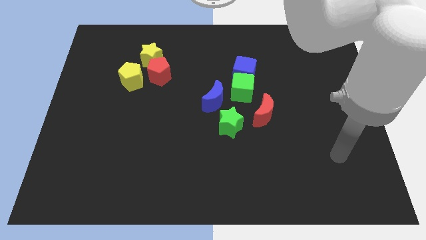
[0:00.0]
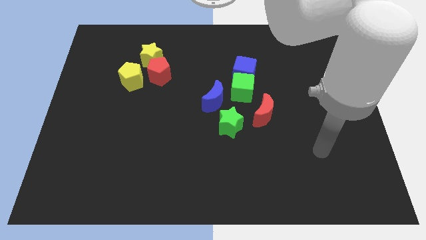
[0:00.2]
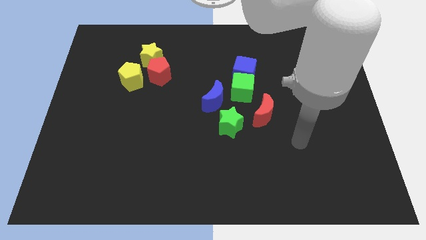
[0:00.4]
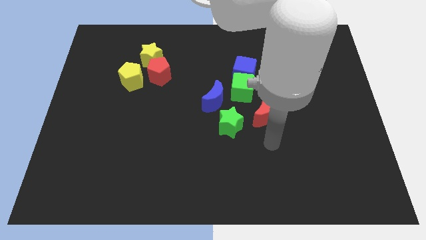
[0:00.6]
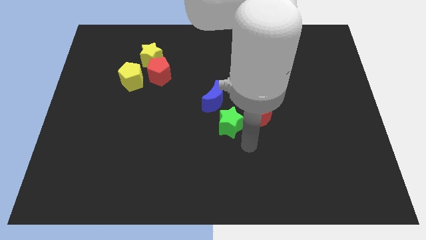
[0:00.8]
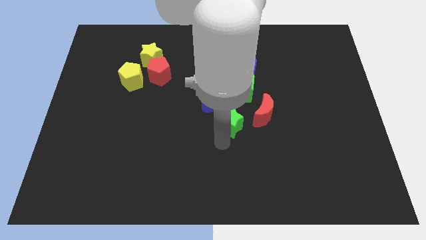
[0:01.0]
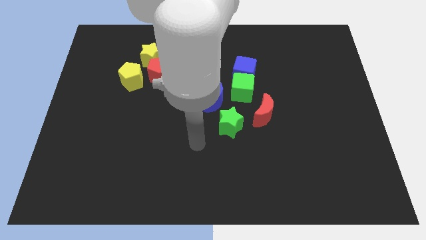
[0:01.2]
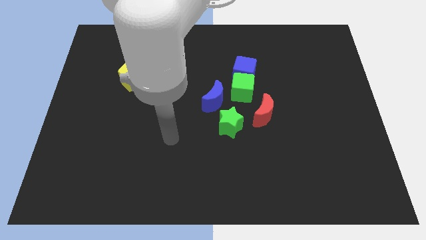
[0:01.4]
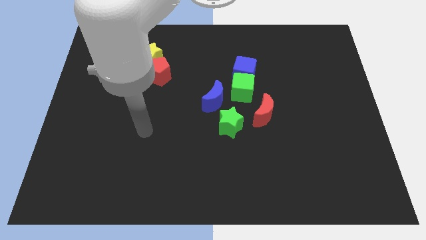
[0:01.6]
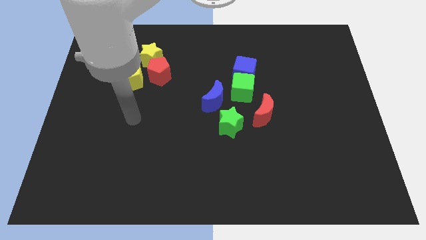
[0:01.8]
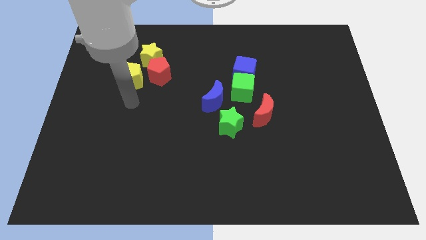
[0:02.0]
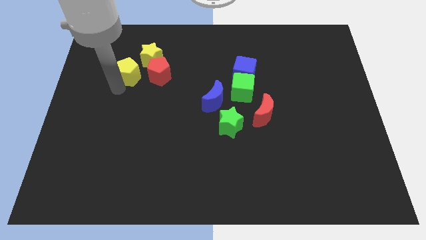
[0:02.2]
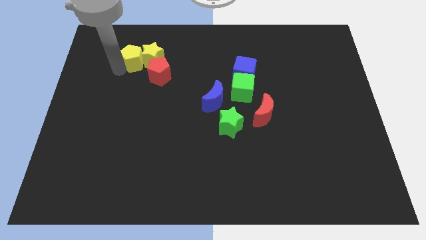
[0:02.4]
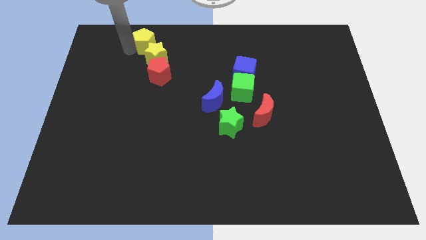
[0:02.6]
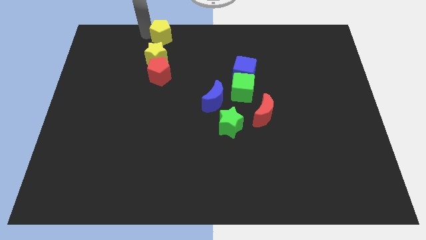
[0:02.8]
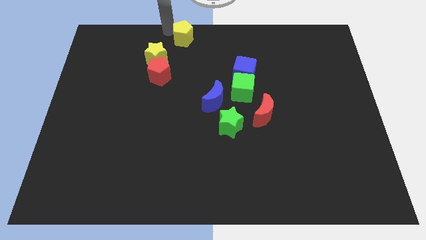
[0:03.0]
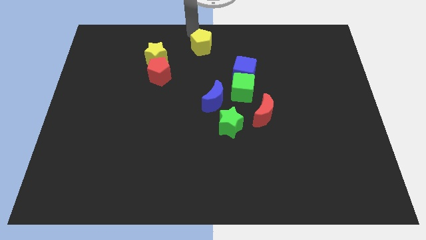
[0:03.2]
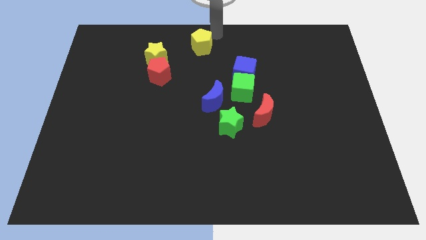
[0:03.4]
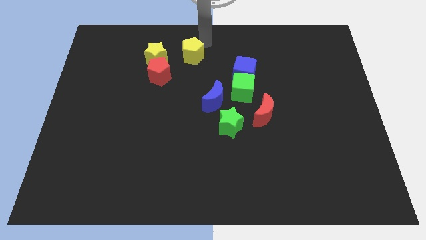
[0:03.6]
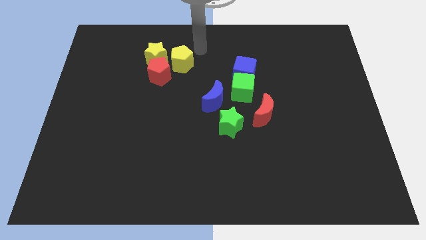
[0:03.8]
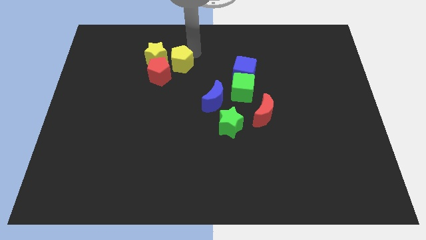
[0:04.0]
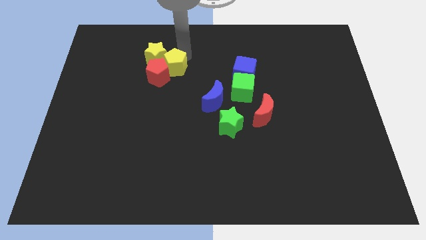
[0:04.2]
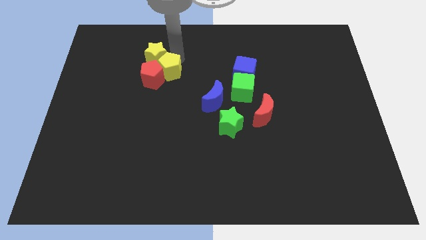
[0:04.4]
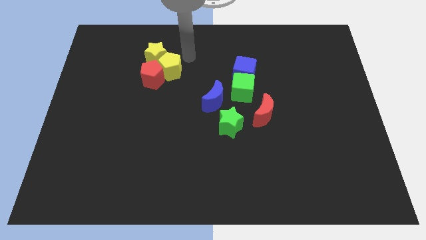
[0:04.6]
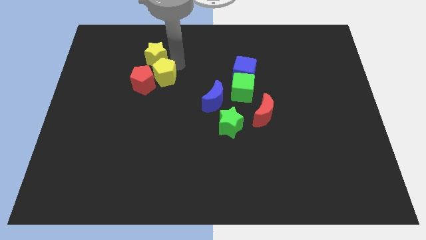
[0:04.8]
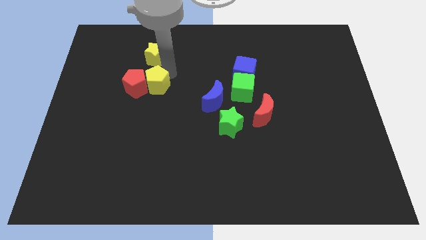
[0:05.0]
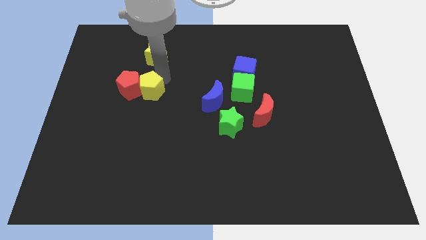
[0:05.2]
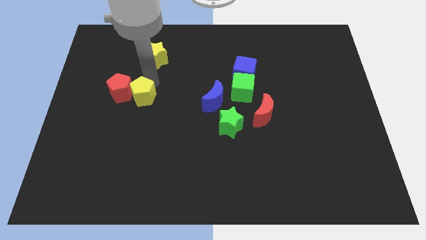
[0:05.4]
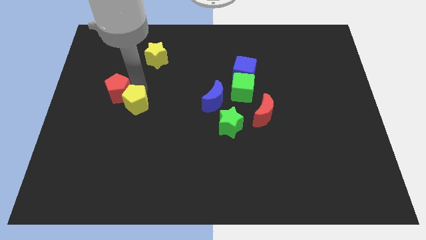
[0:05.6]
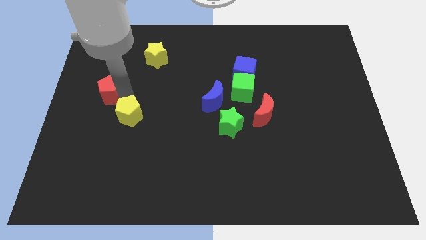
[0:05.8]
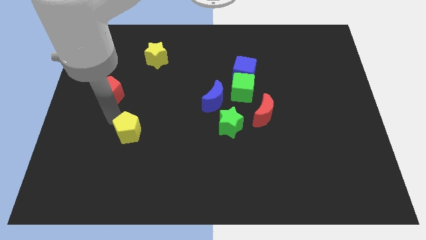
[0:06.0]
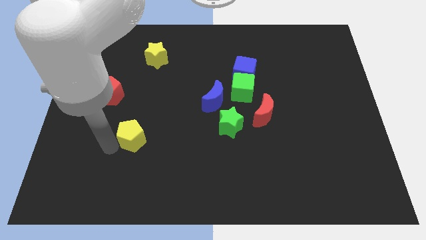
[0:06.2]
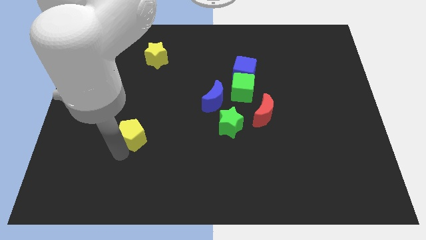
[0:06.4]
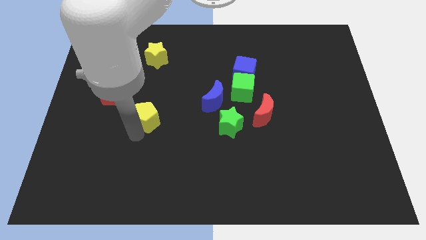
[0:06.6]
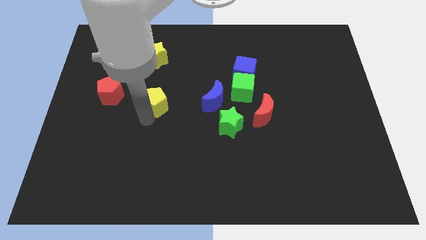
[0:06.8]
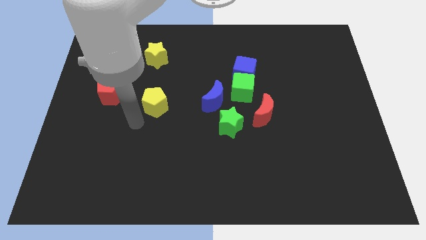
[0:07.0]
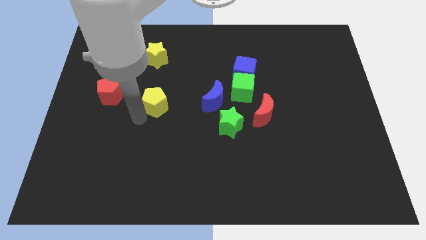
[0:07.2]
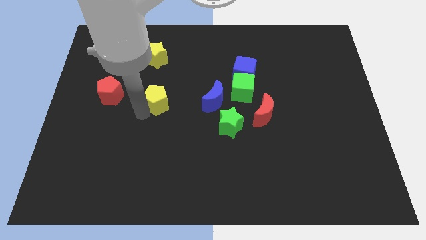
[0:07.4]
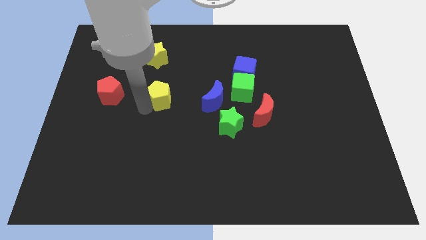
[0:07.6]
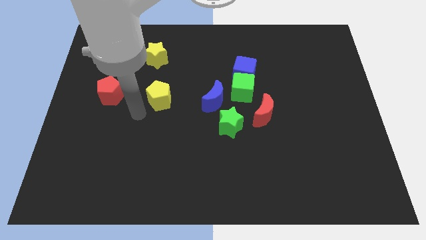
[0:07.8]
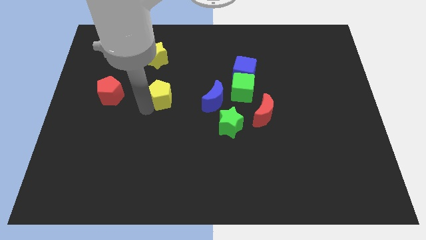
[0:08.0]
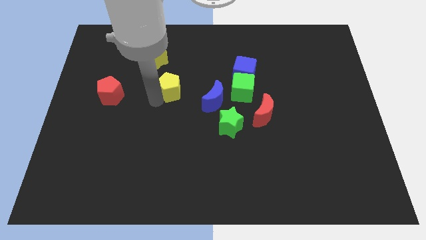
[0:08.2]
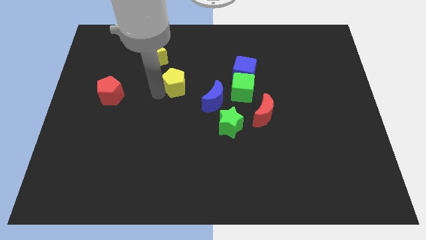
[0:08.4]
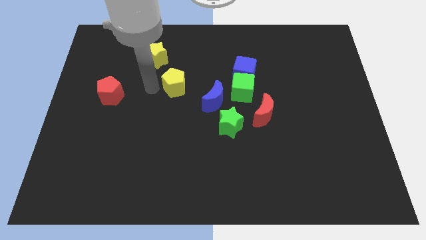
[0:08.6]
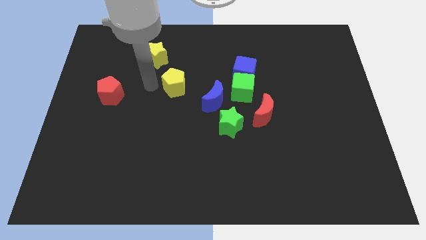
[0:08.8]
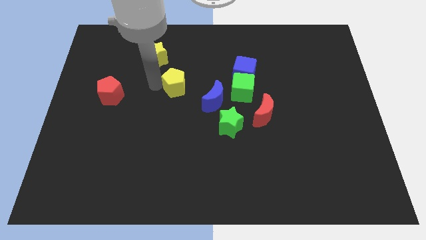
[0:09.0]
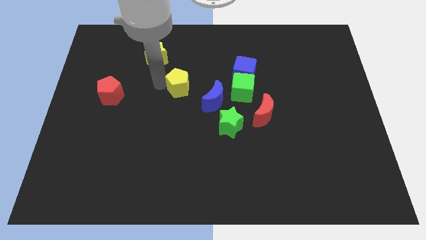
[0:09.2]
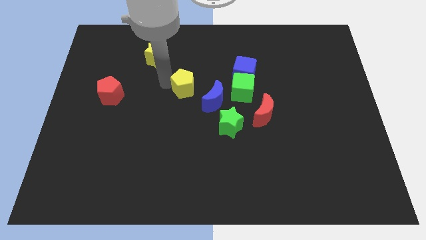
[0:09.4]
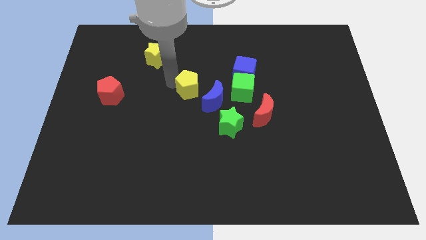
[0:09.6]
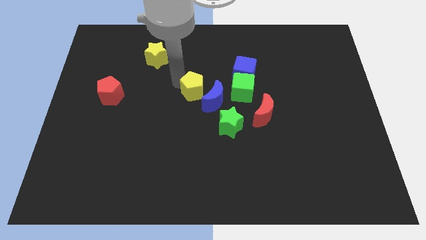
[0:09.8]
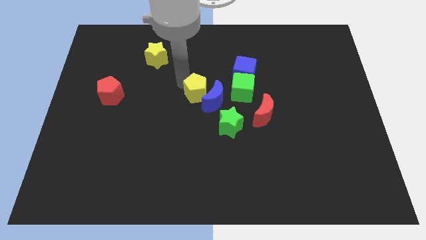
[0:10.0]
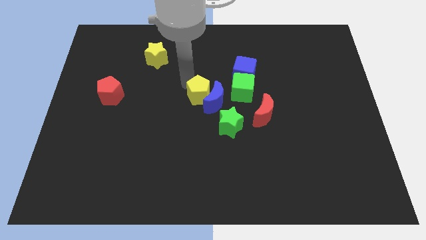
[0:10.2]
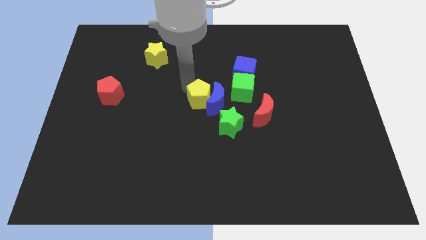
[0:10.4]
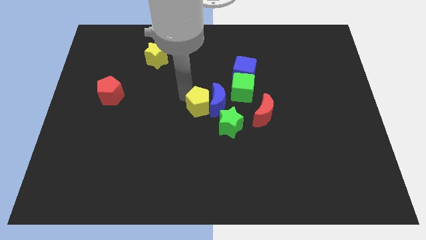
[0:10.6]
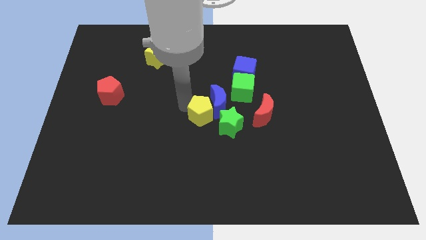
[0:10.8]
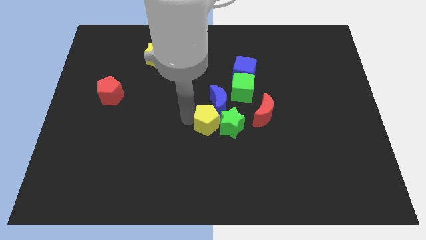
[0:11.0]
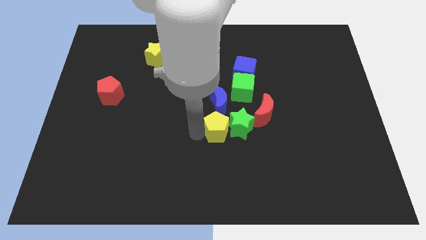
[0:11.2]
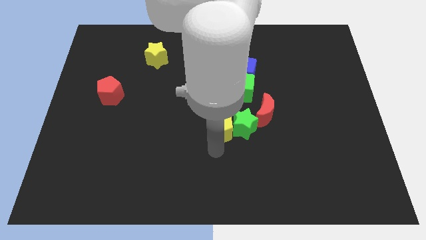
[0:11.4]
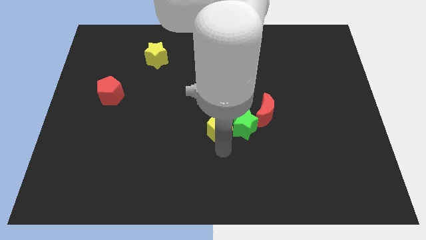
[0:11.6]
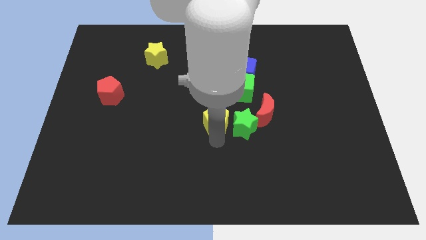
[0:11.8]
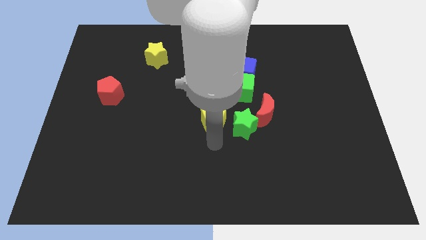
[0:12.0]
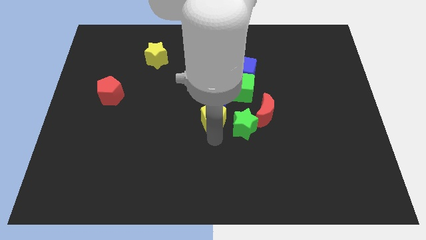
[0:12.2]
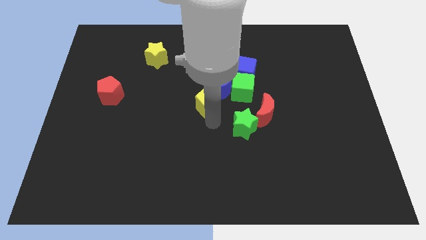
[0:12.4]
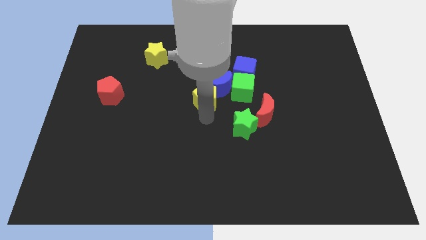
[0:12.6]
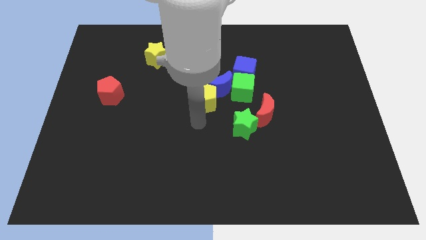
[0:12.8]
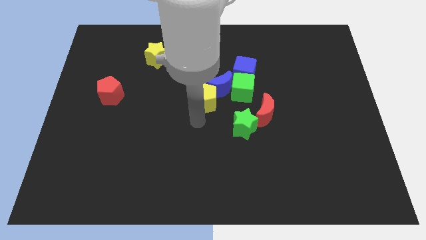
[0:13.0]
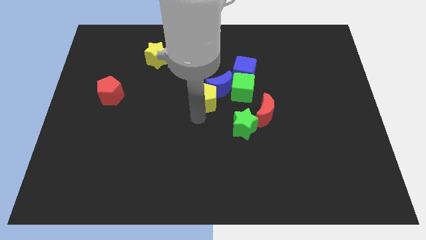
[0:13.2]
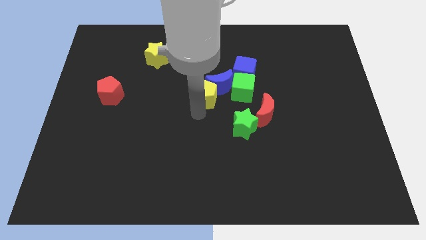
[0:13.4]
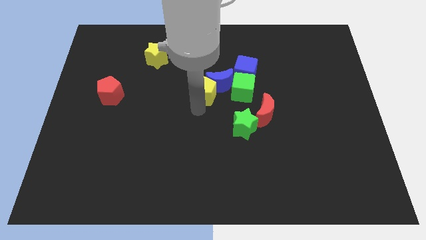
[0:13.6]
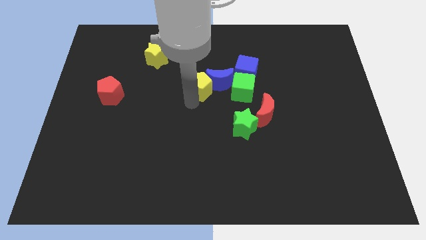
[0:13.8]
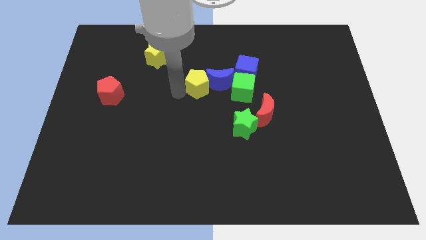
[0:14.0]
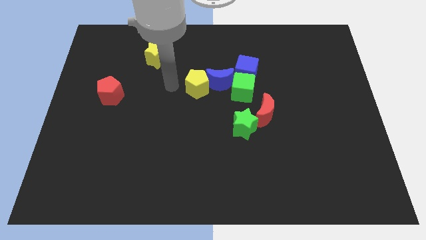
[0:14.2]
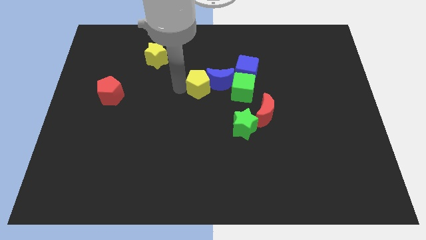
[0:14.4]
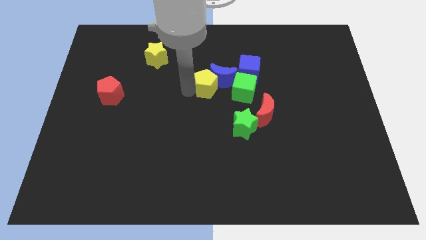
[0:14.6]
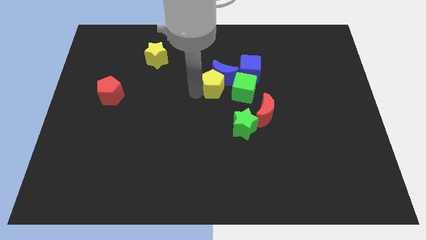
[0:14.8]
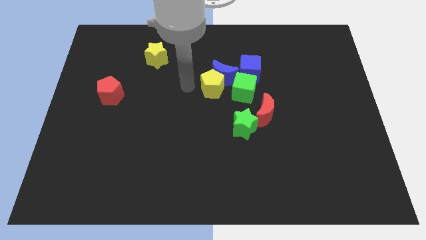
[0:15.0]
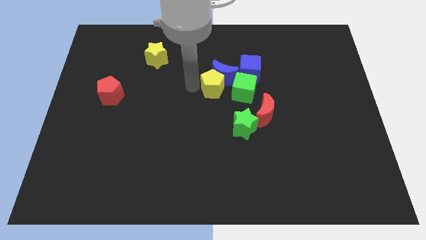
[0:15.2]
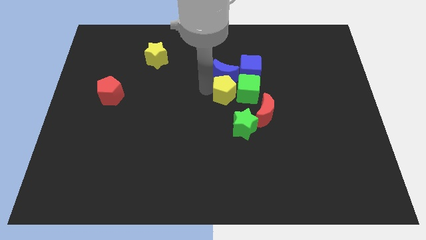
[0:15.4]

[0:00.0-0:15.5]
slide the yellow pentagon to the green cube
